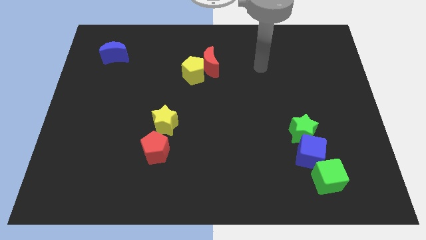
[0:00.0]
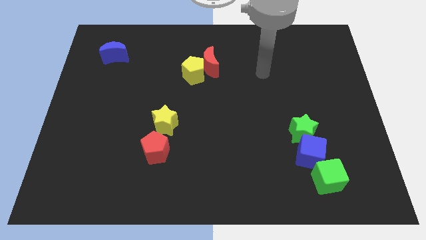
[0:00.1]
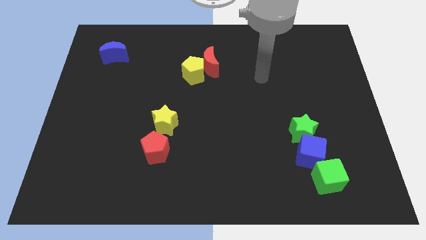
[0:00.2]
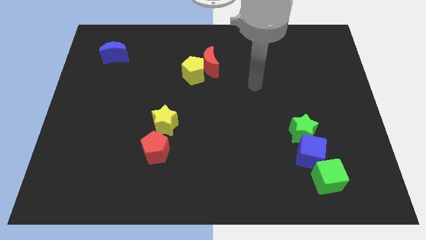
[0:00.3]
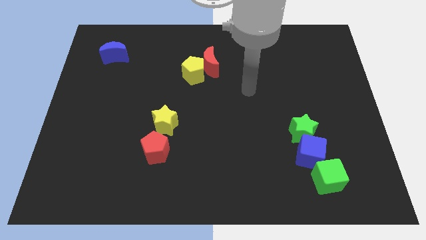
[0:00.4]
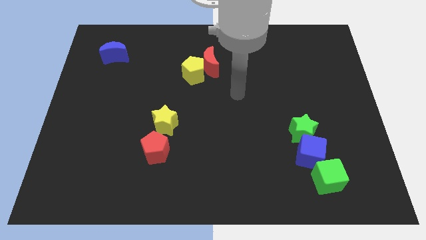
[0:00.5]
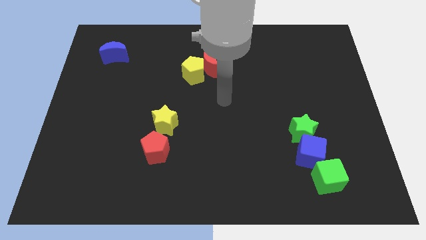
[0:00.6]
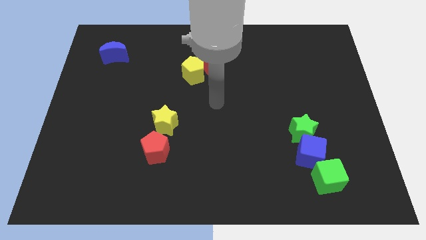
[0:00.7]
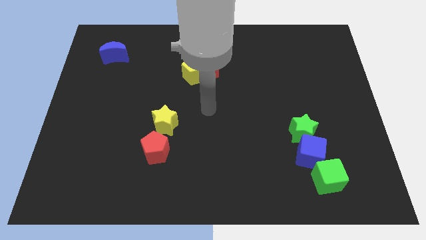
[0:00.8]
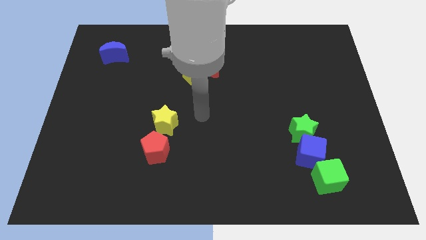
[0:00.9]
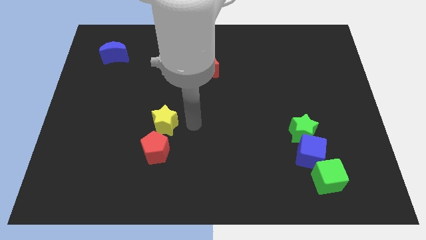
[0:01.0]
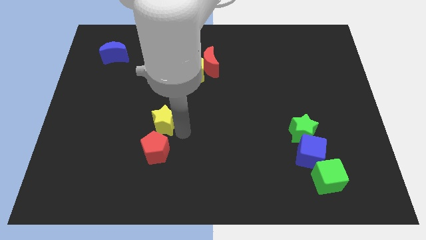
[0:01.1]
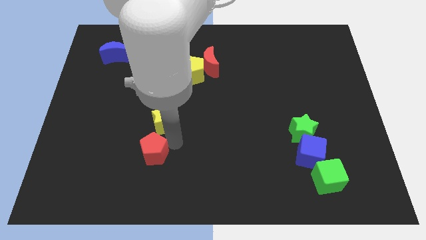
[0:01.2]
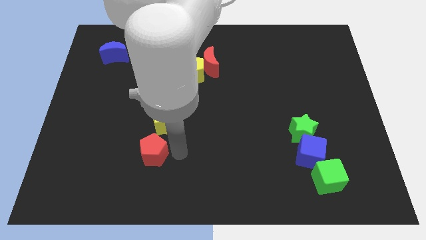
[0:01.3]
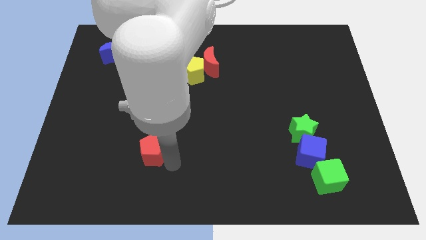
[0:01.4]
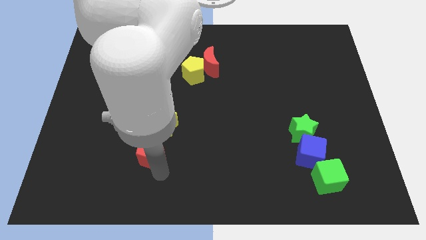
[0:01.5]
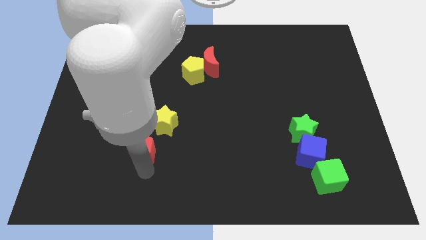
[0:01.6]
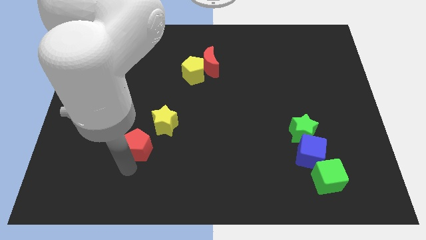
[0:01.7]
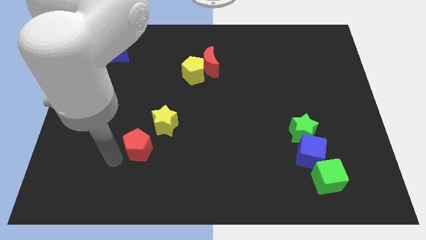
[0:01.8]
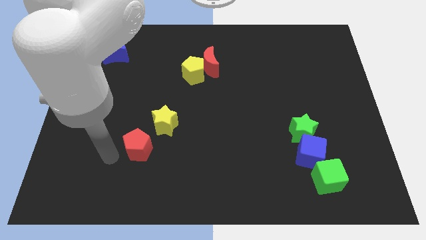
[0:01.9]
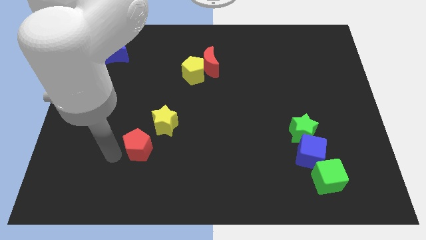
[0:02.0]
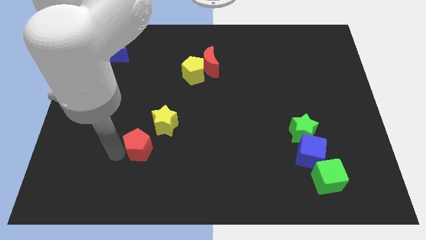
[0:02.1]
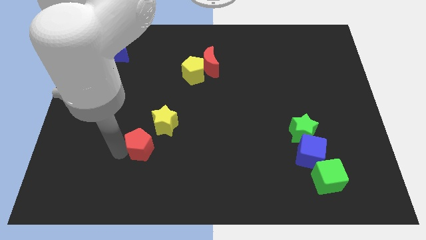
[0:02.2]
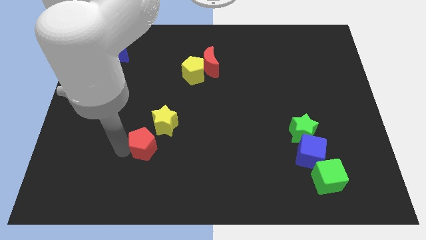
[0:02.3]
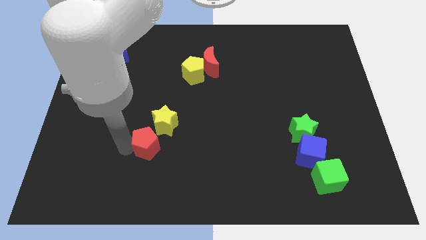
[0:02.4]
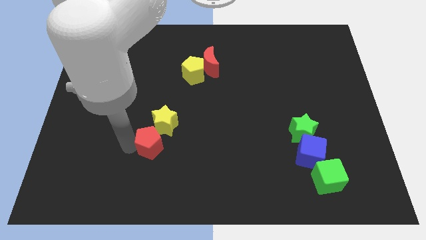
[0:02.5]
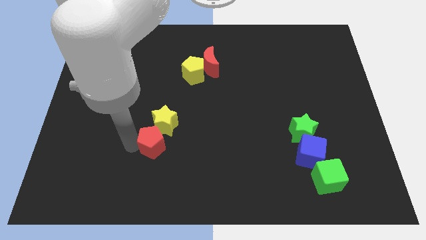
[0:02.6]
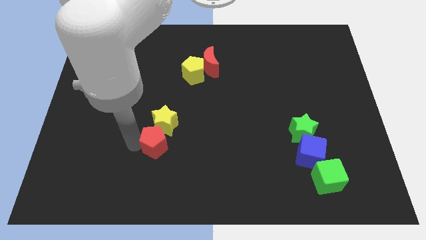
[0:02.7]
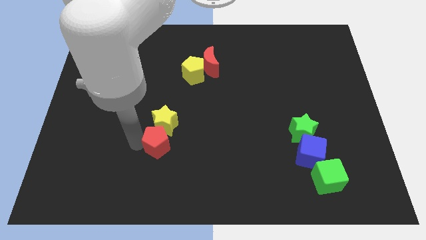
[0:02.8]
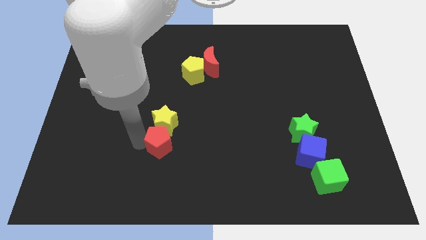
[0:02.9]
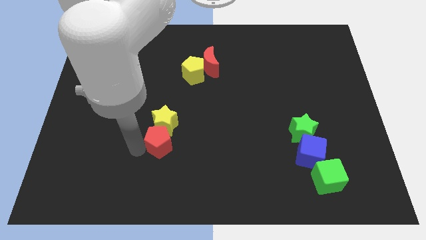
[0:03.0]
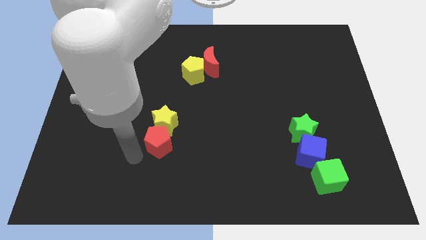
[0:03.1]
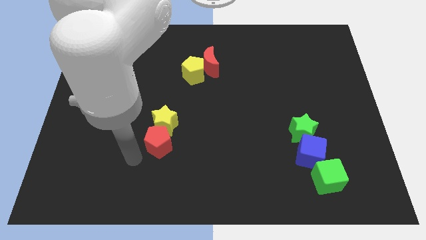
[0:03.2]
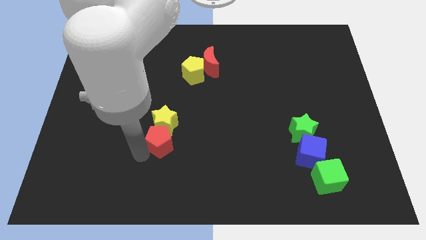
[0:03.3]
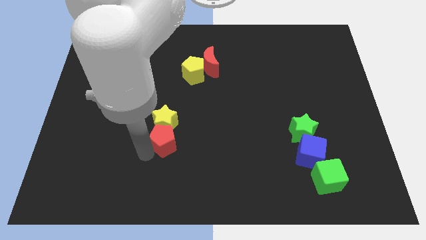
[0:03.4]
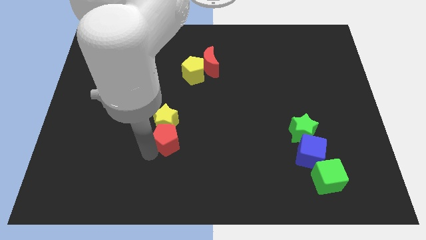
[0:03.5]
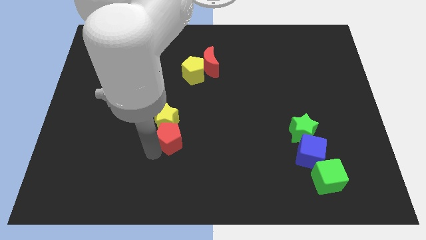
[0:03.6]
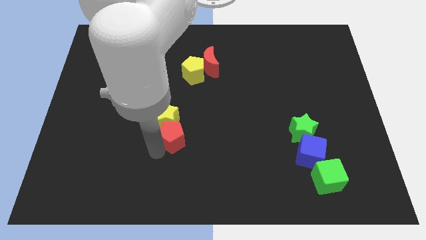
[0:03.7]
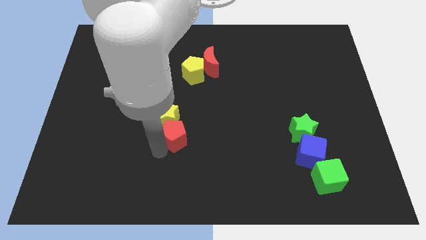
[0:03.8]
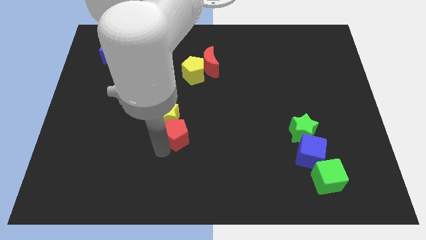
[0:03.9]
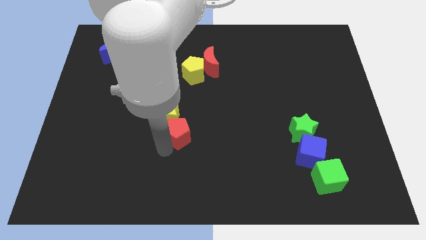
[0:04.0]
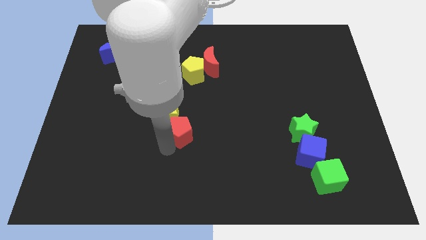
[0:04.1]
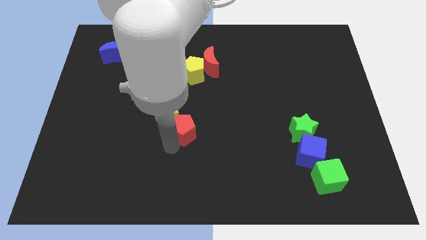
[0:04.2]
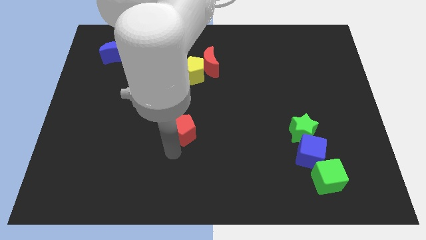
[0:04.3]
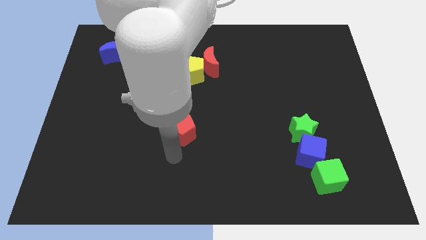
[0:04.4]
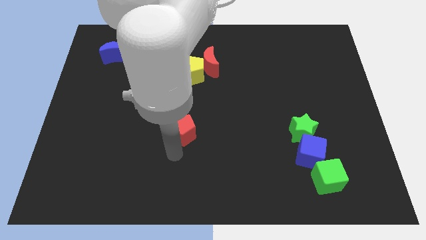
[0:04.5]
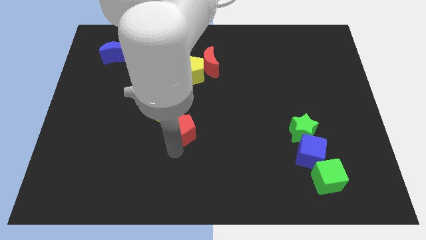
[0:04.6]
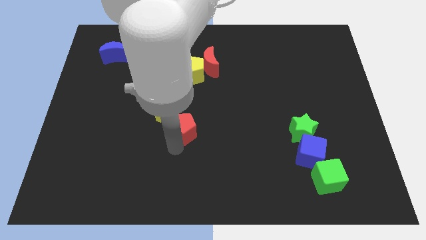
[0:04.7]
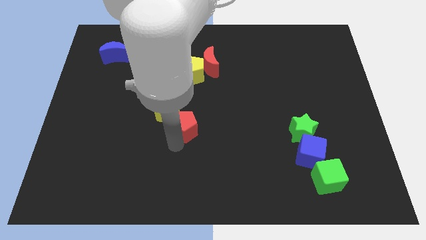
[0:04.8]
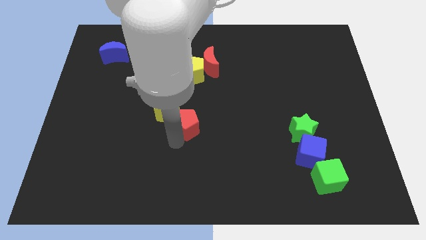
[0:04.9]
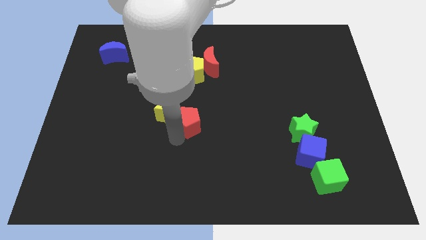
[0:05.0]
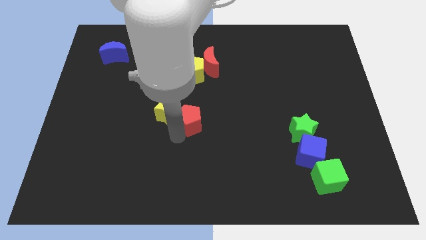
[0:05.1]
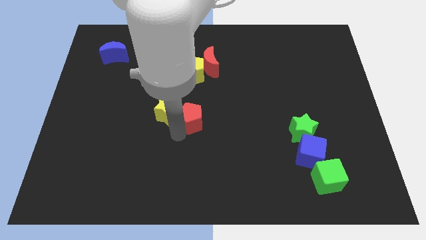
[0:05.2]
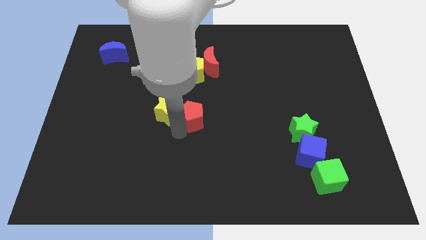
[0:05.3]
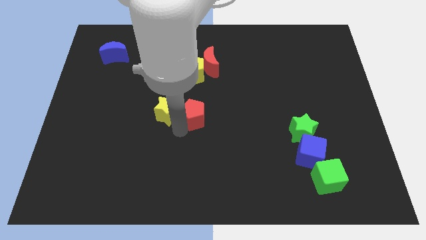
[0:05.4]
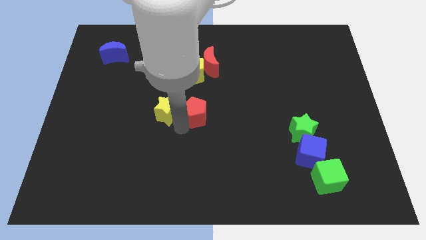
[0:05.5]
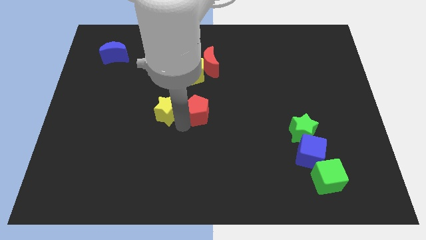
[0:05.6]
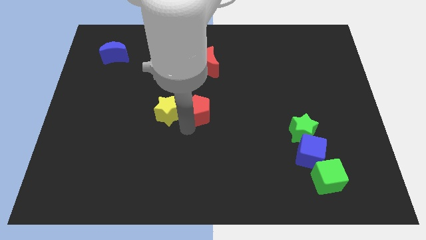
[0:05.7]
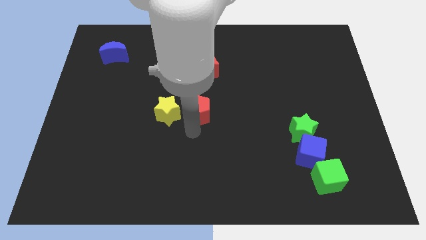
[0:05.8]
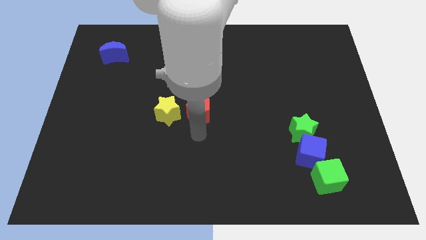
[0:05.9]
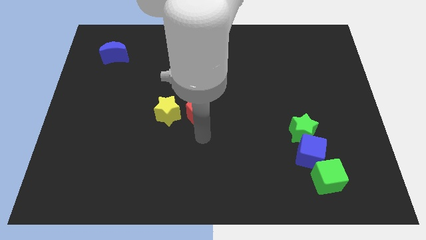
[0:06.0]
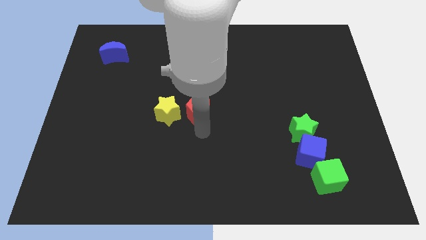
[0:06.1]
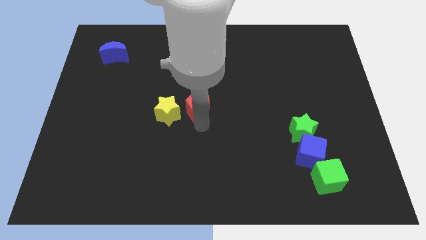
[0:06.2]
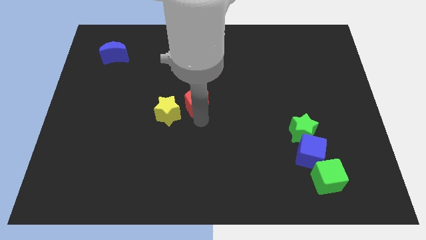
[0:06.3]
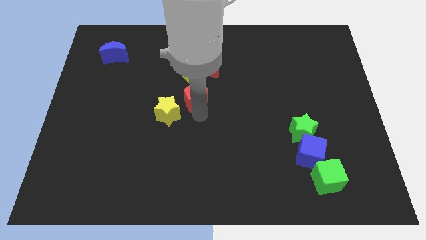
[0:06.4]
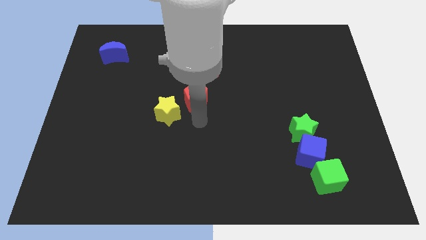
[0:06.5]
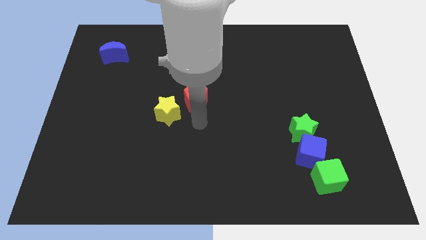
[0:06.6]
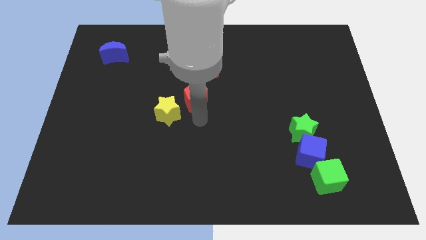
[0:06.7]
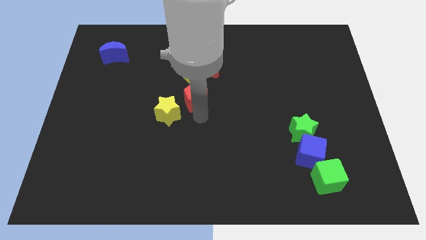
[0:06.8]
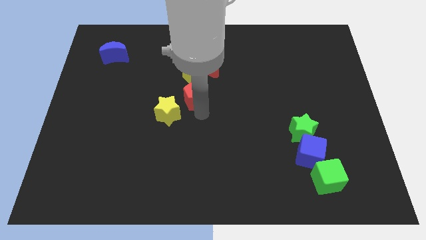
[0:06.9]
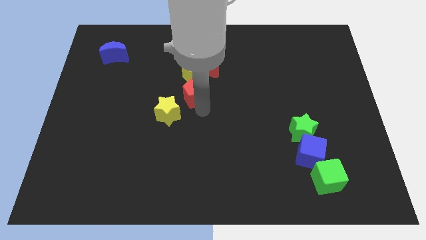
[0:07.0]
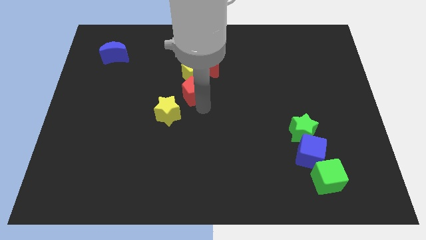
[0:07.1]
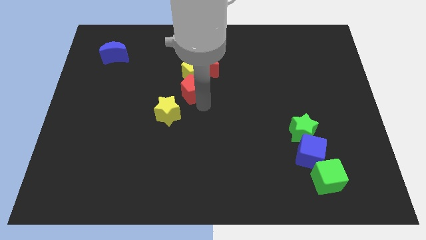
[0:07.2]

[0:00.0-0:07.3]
push the red pentagon next to the yellow pentagon
